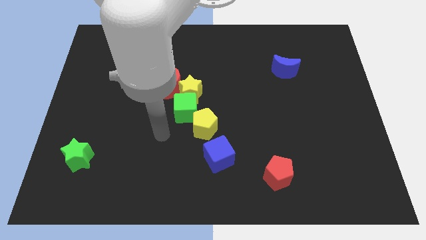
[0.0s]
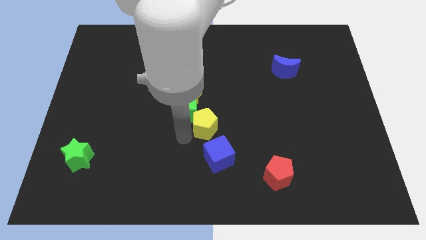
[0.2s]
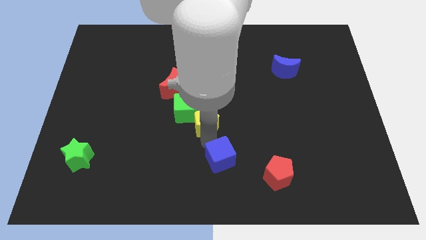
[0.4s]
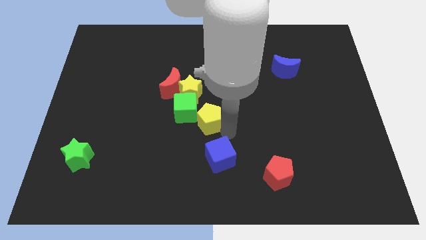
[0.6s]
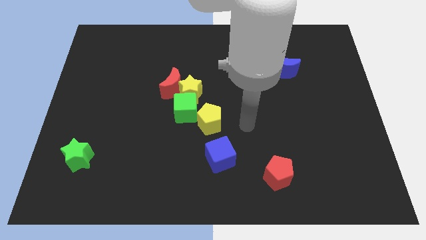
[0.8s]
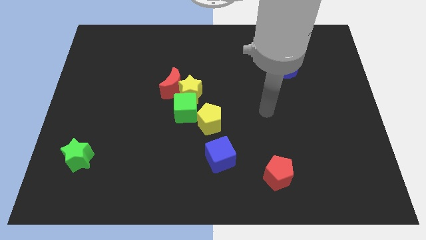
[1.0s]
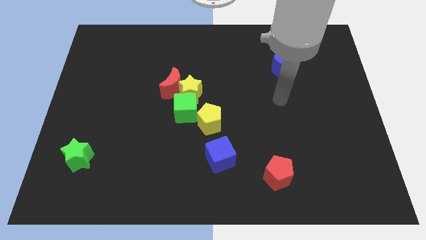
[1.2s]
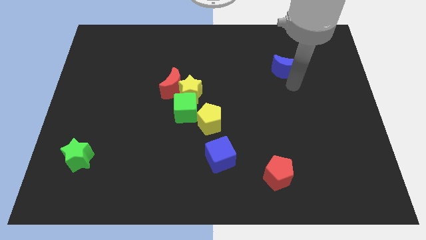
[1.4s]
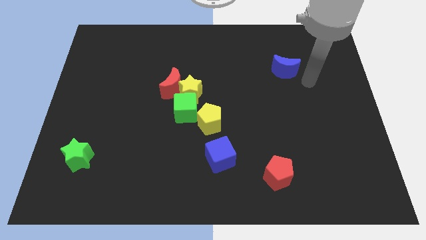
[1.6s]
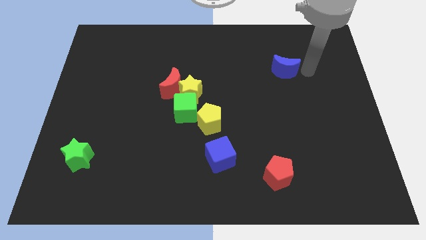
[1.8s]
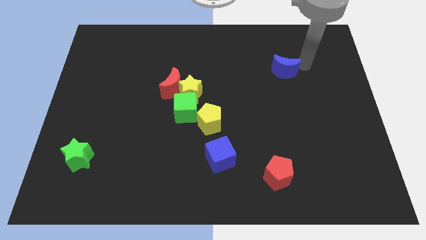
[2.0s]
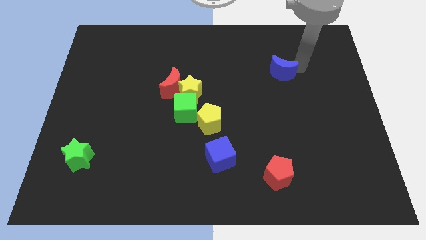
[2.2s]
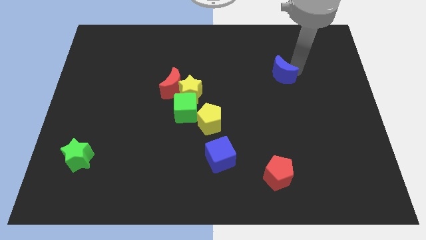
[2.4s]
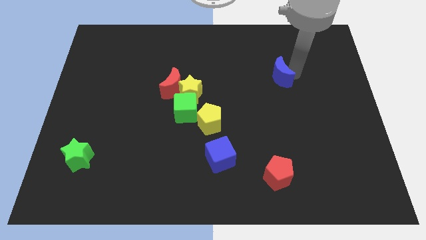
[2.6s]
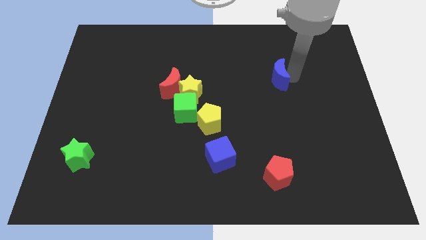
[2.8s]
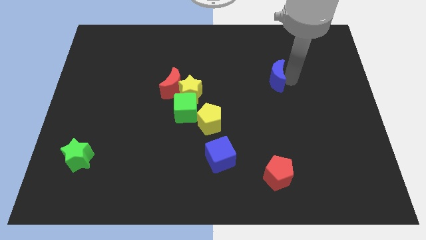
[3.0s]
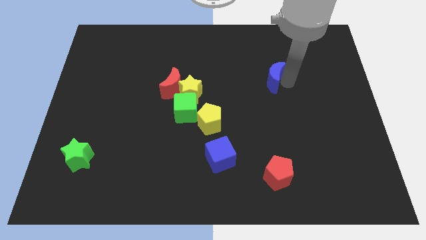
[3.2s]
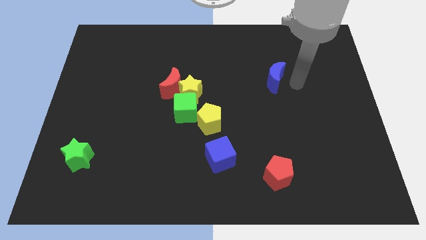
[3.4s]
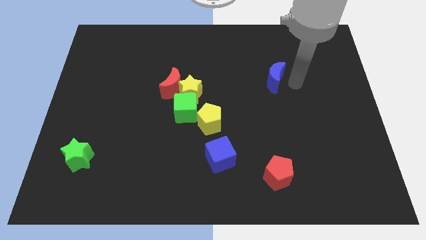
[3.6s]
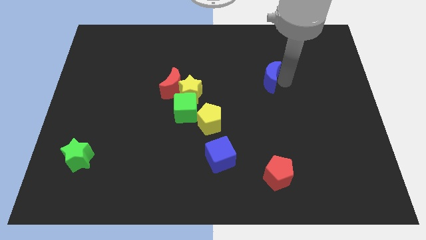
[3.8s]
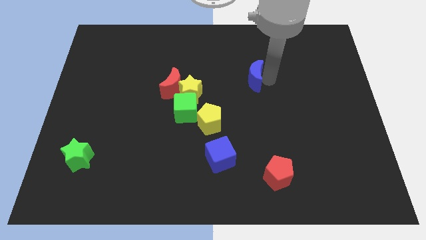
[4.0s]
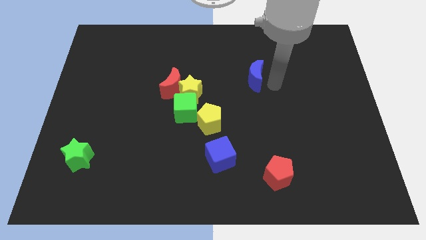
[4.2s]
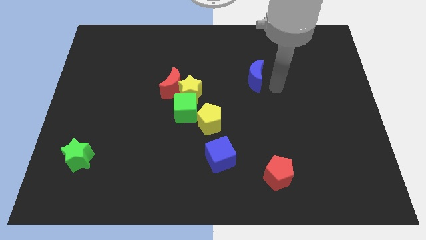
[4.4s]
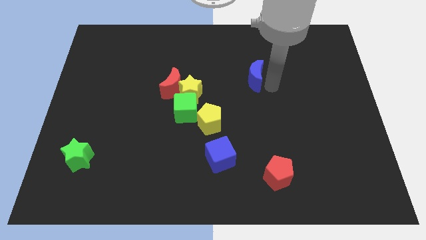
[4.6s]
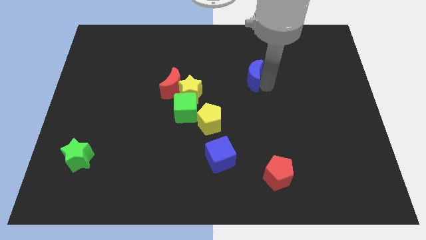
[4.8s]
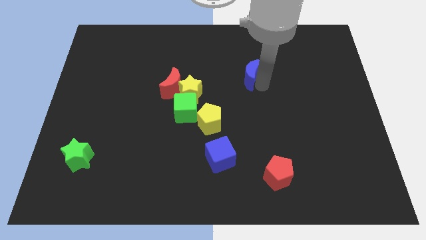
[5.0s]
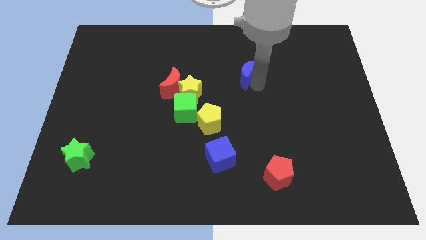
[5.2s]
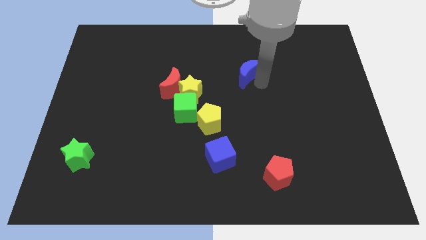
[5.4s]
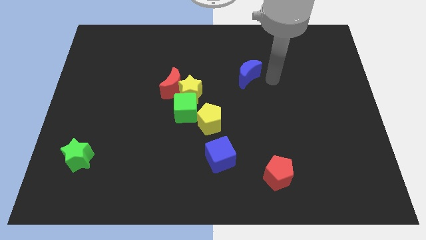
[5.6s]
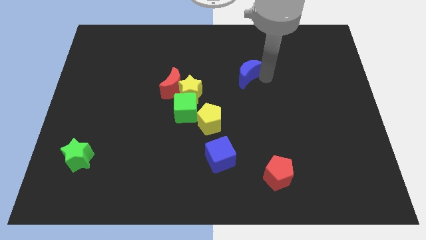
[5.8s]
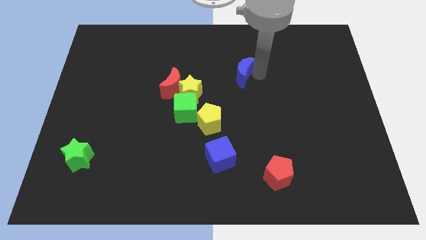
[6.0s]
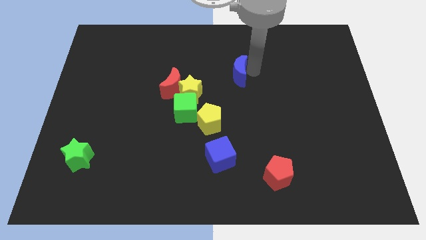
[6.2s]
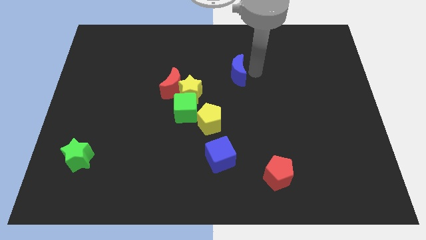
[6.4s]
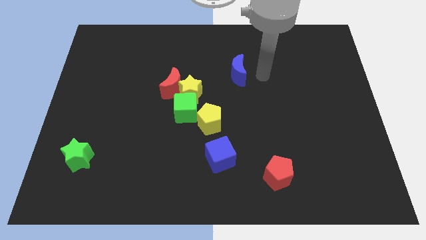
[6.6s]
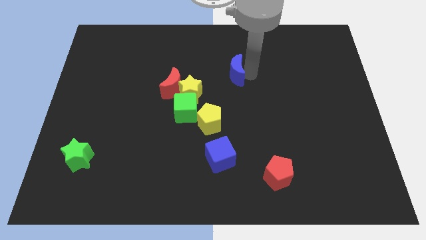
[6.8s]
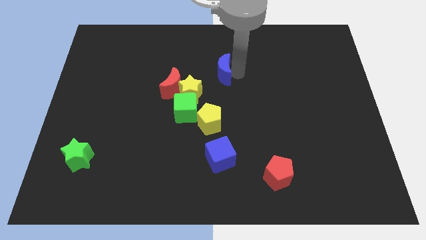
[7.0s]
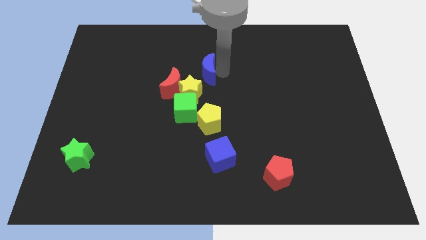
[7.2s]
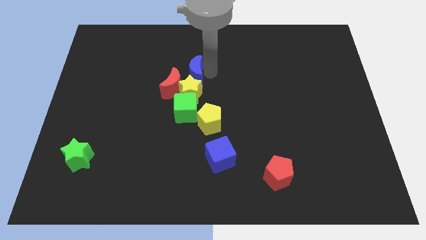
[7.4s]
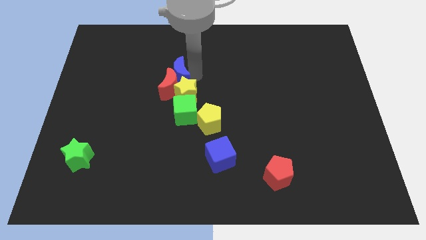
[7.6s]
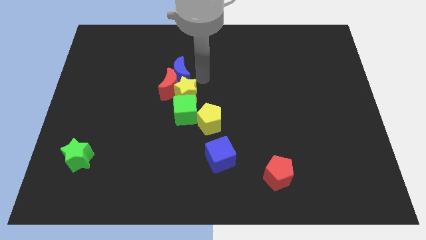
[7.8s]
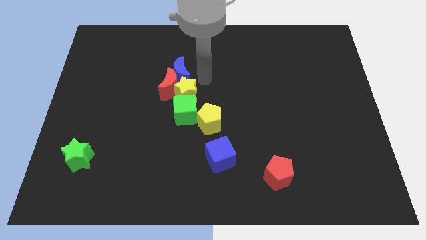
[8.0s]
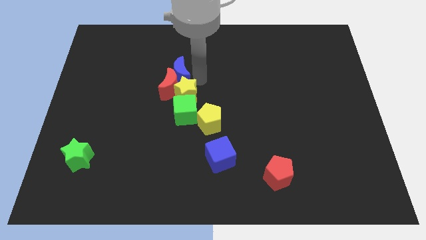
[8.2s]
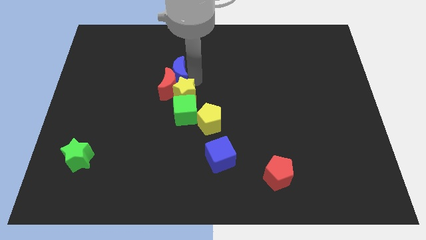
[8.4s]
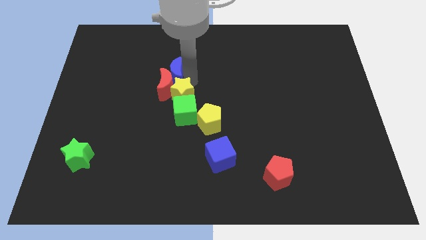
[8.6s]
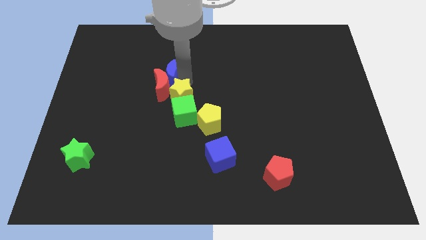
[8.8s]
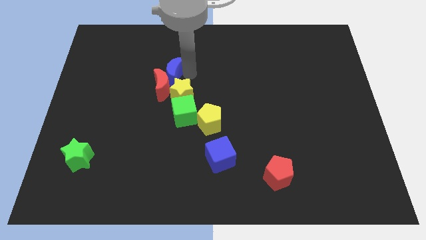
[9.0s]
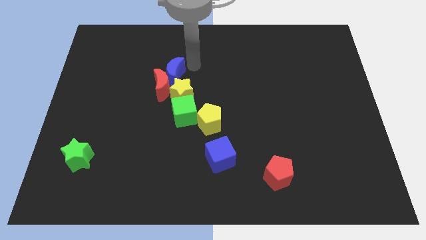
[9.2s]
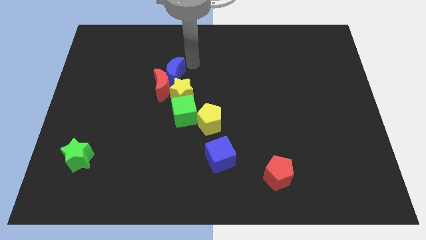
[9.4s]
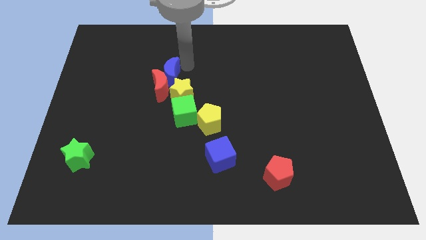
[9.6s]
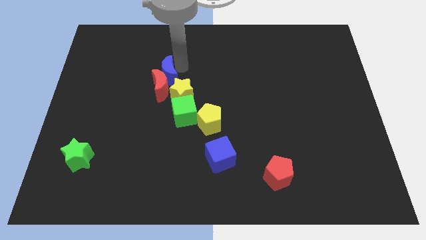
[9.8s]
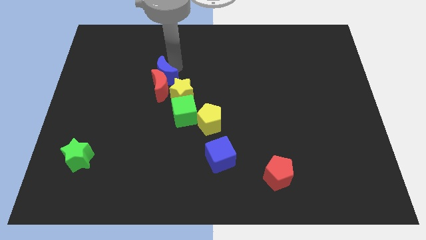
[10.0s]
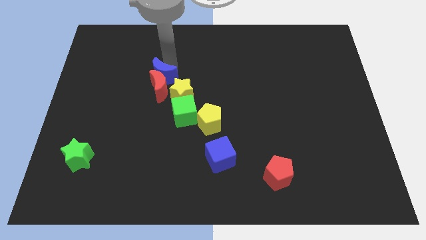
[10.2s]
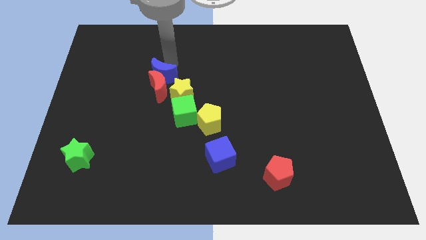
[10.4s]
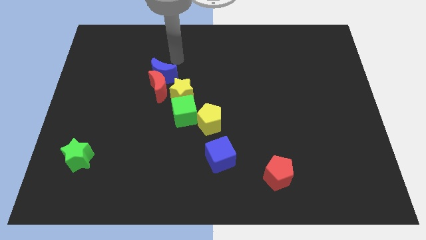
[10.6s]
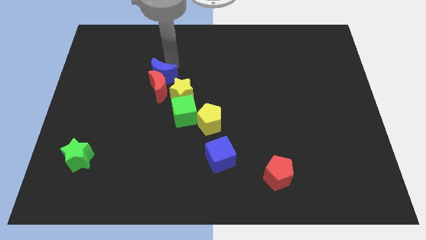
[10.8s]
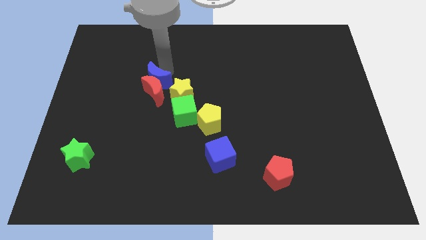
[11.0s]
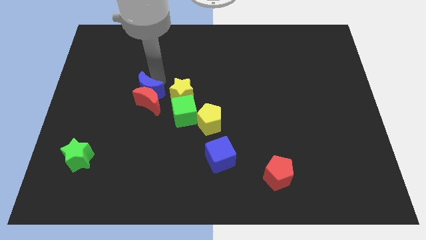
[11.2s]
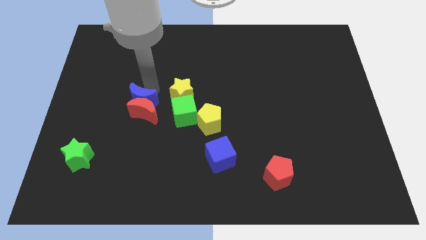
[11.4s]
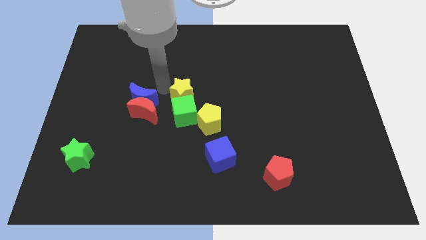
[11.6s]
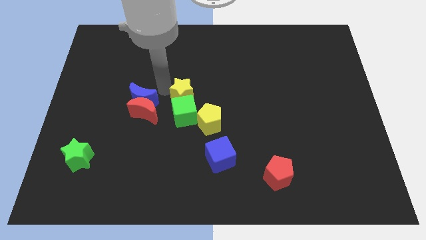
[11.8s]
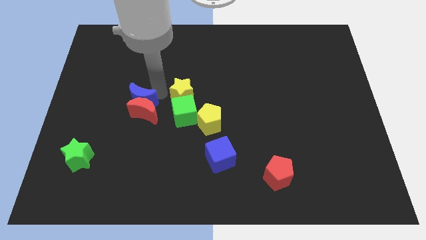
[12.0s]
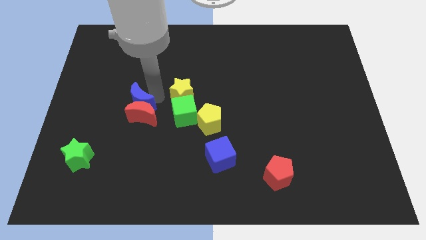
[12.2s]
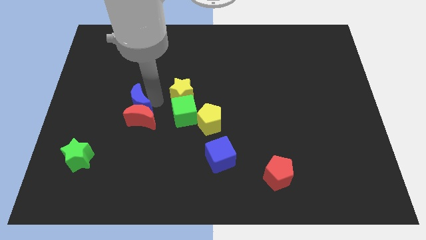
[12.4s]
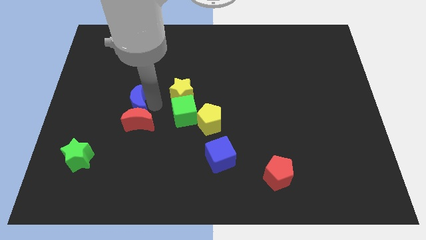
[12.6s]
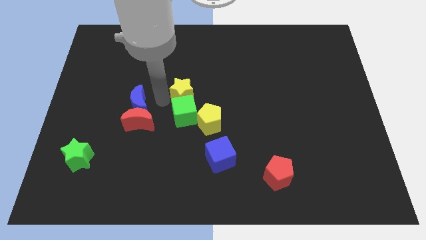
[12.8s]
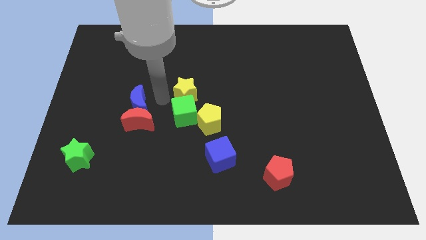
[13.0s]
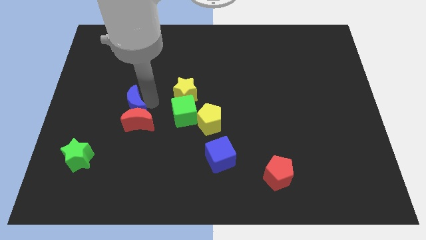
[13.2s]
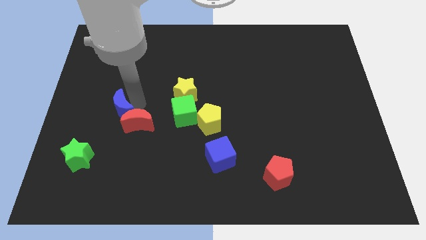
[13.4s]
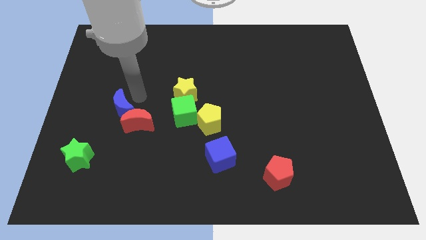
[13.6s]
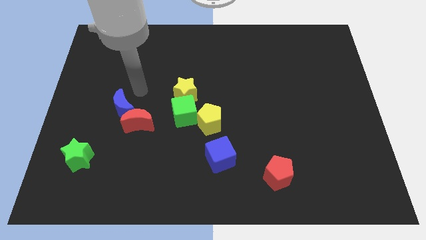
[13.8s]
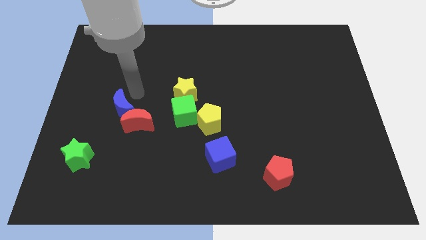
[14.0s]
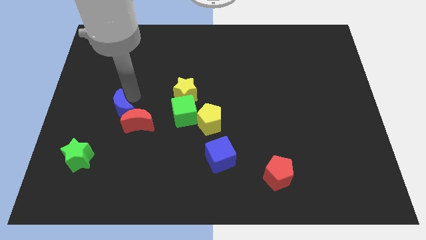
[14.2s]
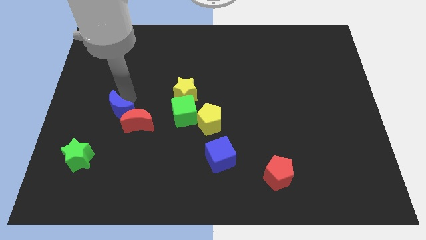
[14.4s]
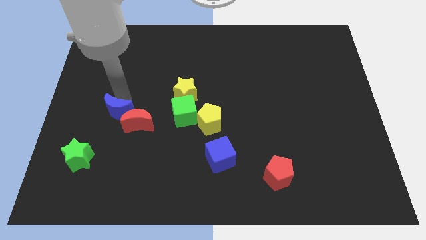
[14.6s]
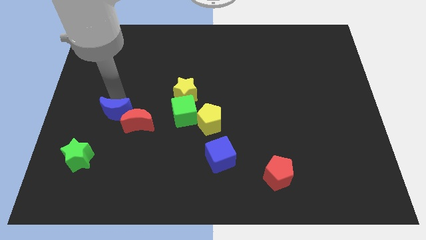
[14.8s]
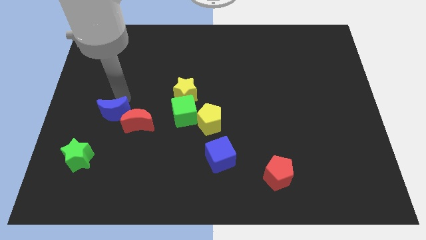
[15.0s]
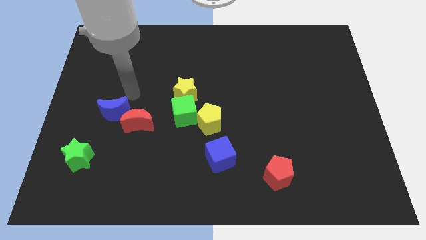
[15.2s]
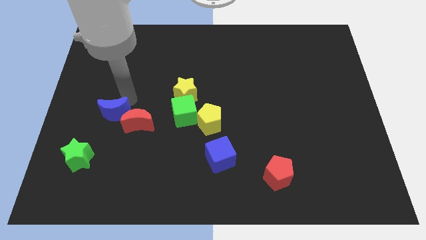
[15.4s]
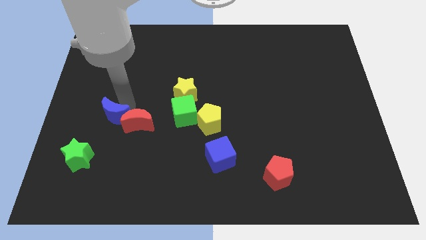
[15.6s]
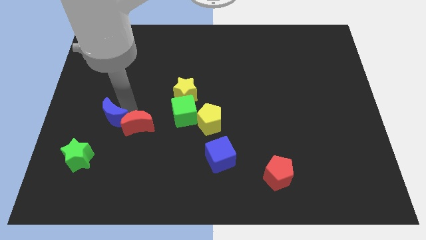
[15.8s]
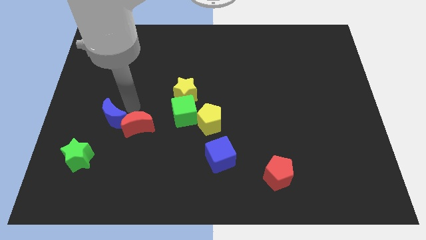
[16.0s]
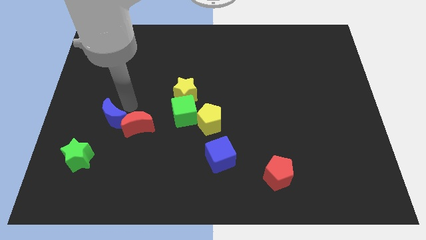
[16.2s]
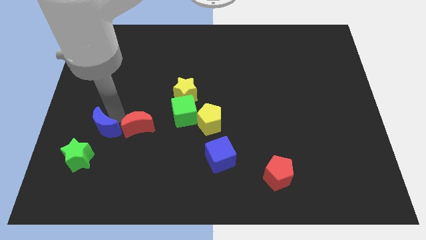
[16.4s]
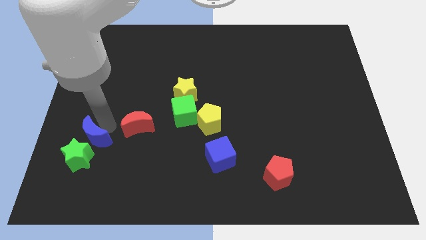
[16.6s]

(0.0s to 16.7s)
move the blue moon next to the green star
